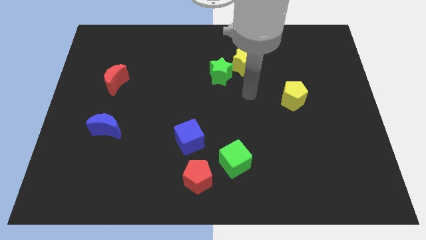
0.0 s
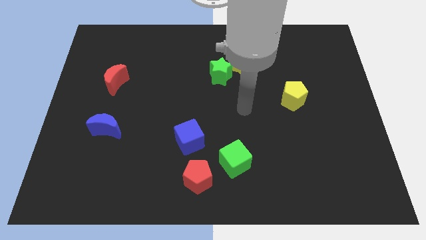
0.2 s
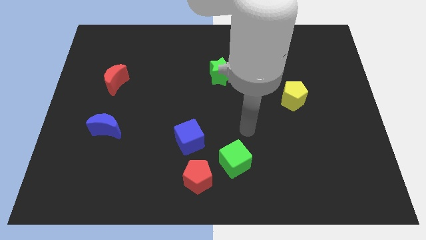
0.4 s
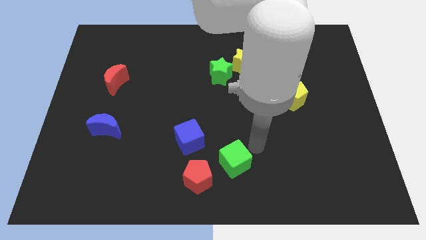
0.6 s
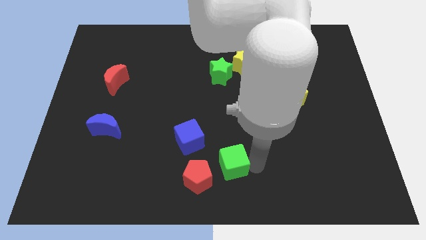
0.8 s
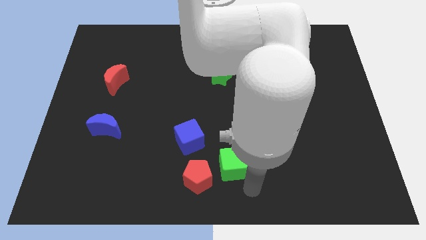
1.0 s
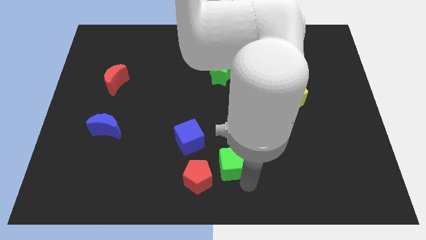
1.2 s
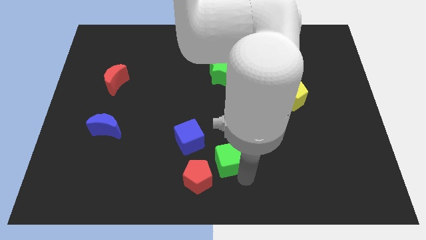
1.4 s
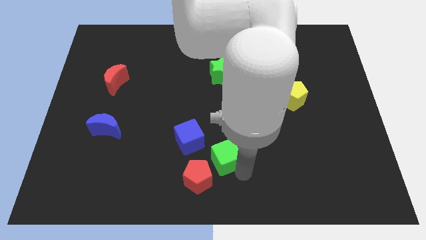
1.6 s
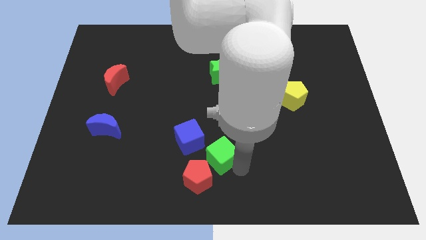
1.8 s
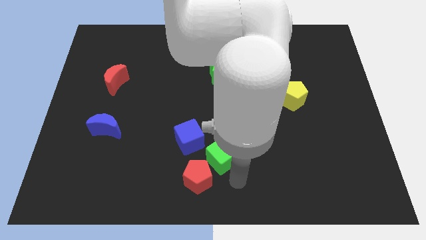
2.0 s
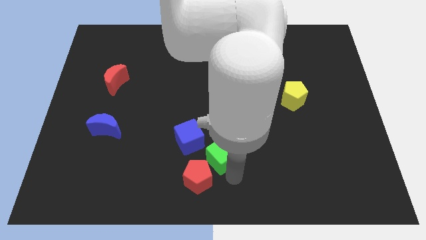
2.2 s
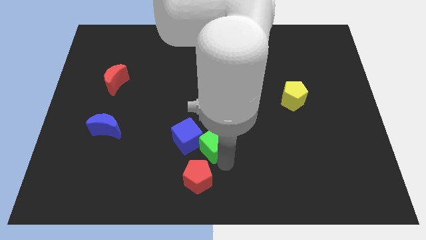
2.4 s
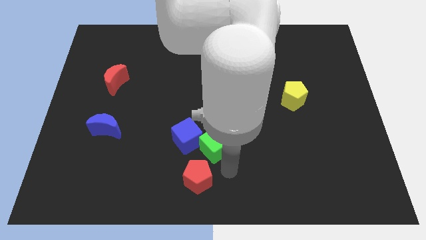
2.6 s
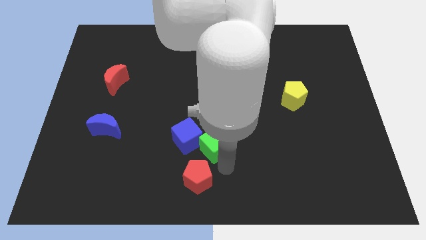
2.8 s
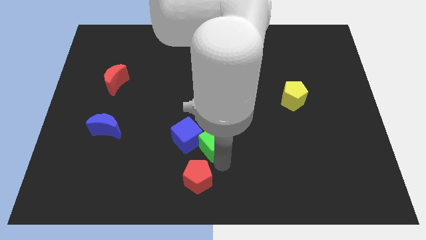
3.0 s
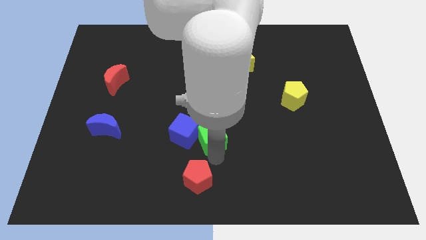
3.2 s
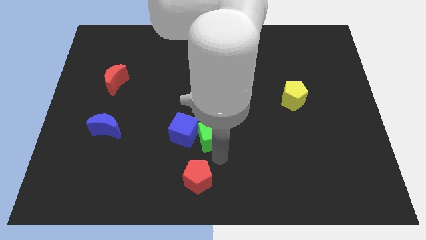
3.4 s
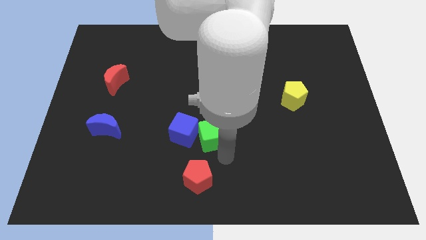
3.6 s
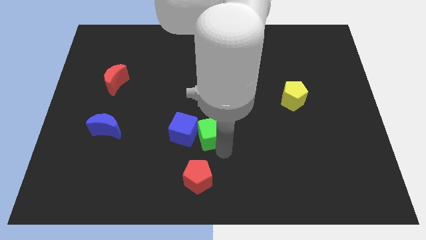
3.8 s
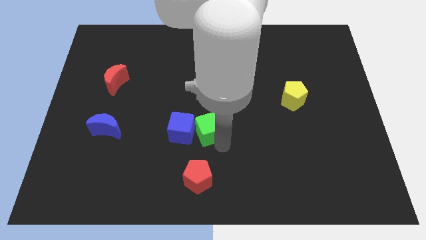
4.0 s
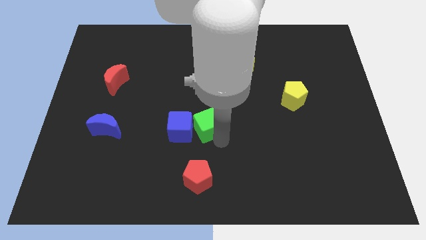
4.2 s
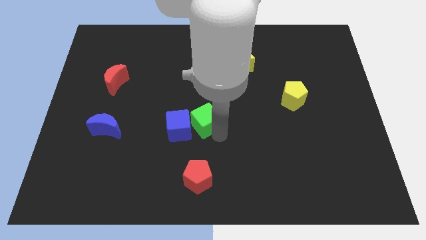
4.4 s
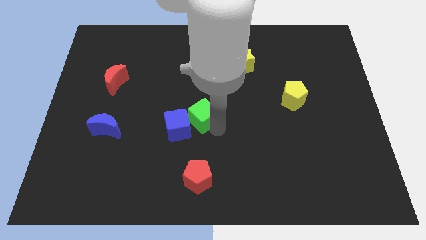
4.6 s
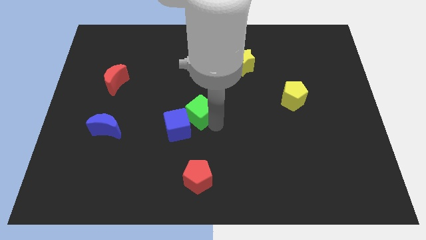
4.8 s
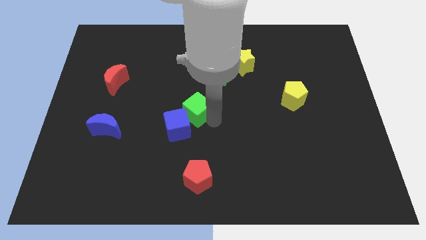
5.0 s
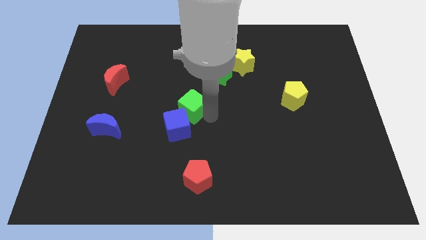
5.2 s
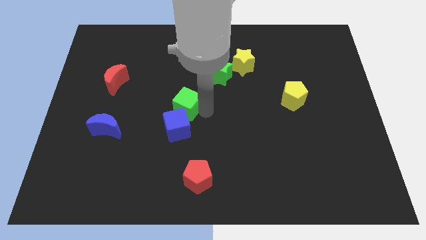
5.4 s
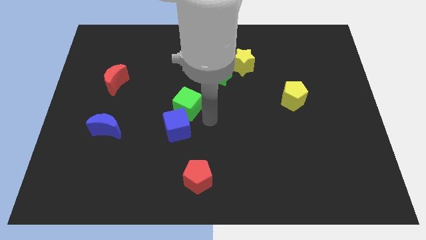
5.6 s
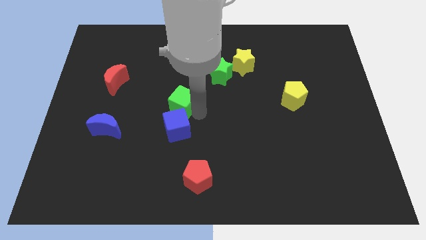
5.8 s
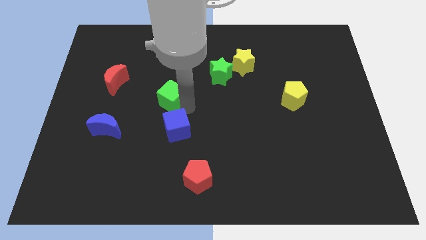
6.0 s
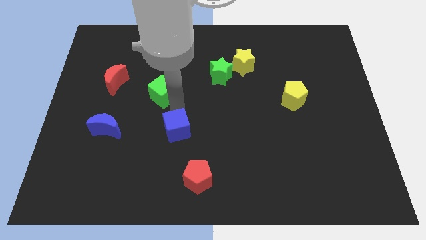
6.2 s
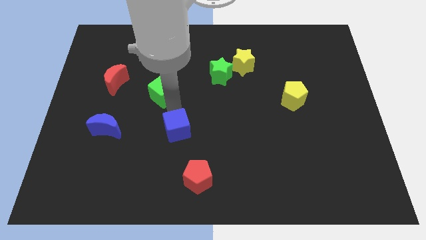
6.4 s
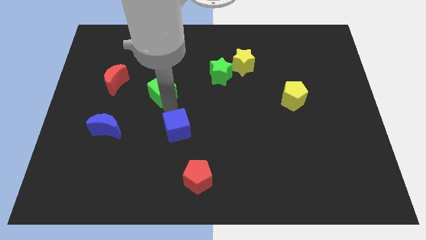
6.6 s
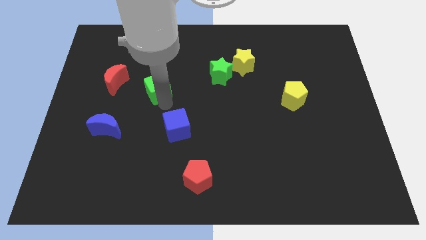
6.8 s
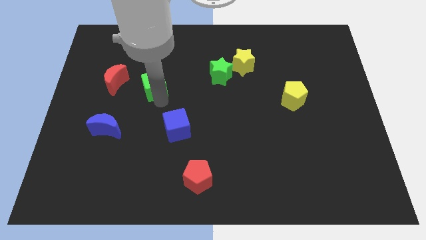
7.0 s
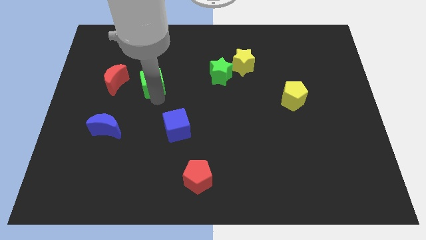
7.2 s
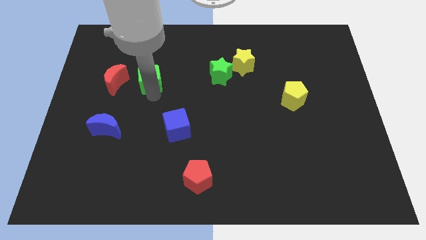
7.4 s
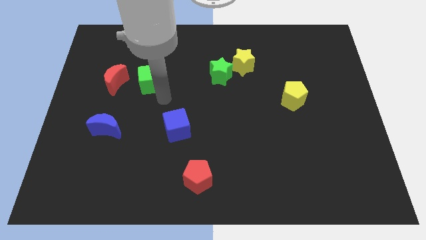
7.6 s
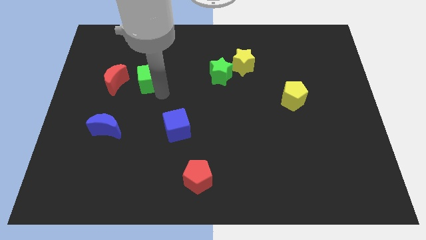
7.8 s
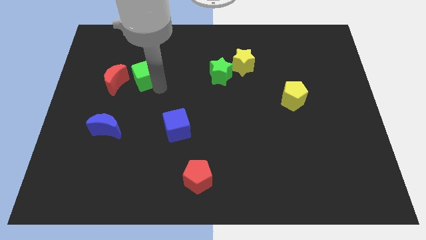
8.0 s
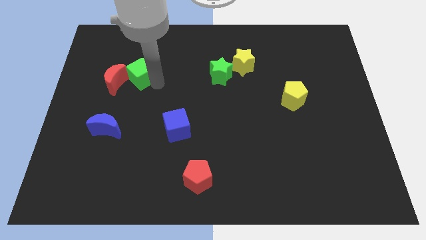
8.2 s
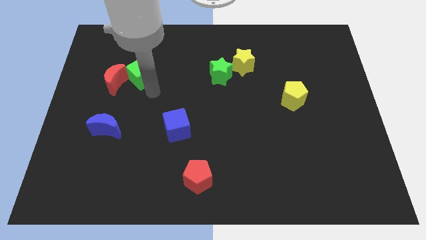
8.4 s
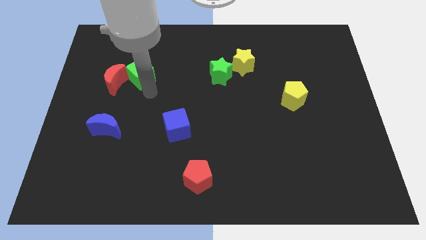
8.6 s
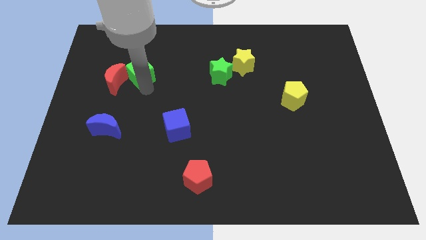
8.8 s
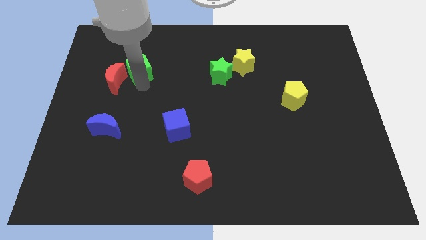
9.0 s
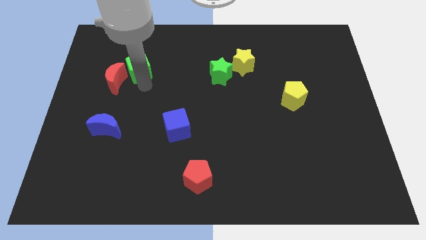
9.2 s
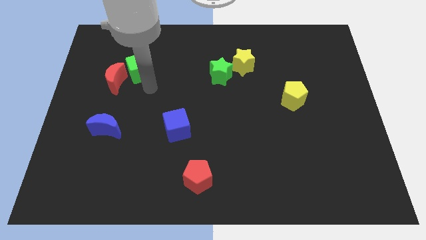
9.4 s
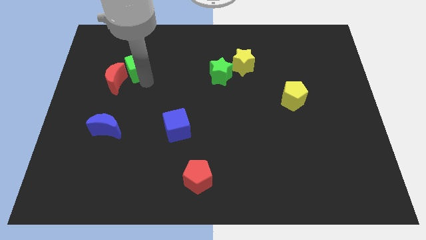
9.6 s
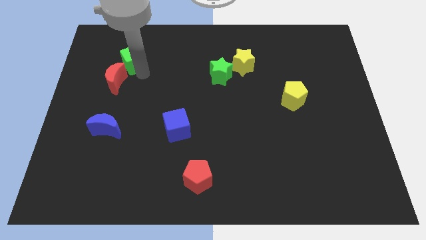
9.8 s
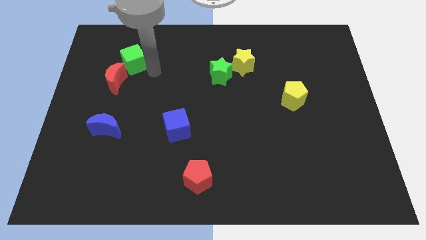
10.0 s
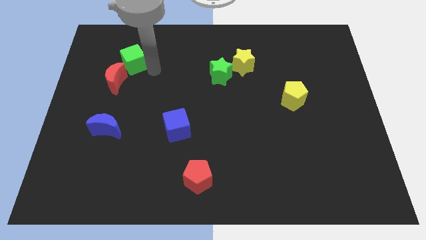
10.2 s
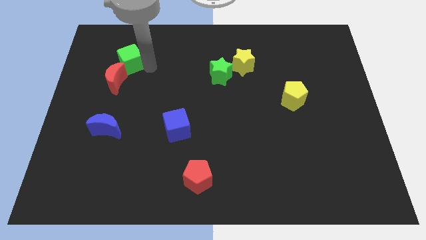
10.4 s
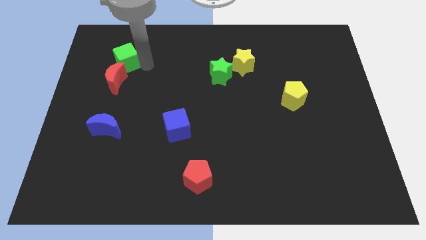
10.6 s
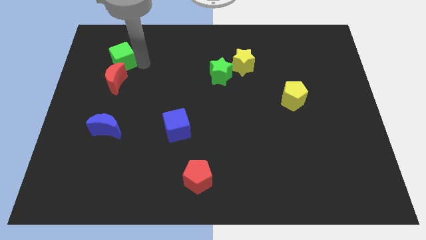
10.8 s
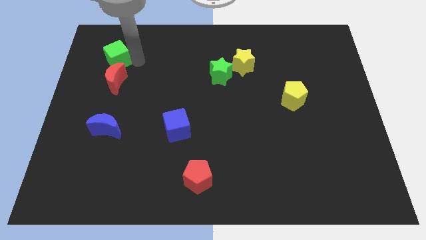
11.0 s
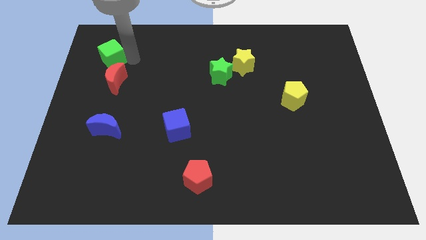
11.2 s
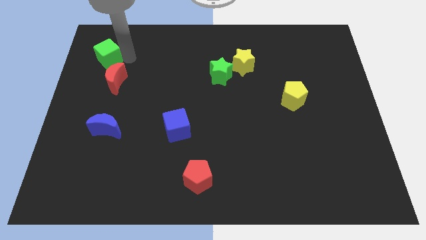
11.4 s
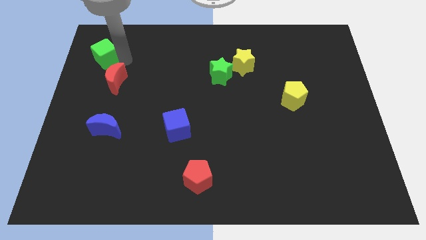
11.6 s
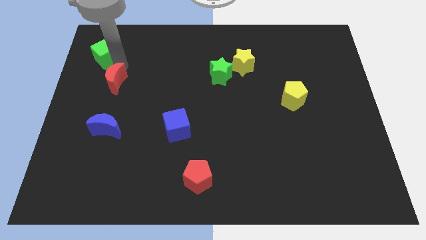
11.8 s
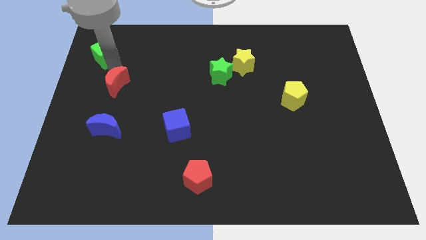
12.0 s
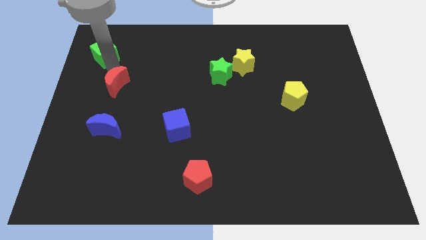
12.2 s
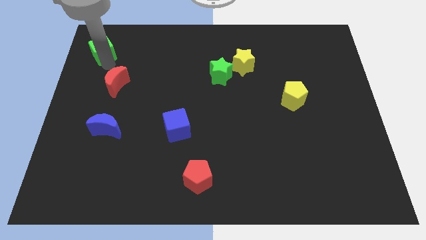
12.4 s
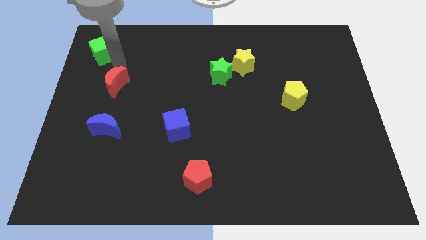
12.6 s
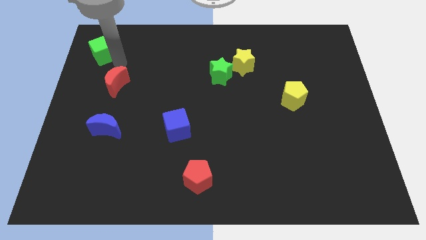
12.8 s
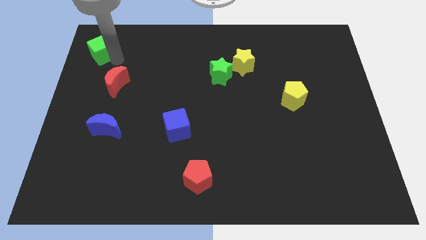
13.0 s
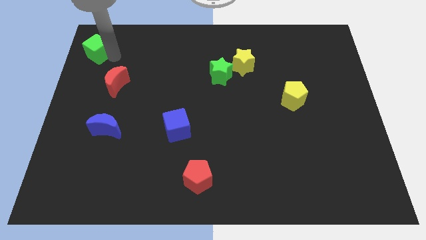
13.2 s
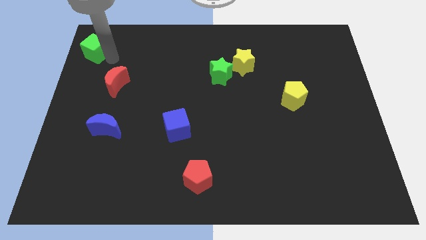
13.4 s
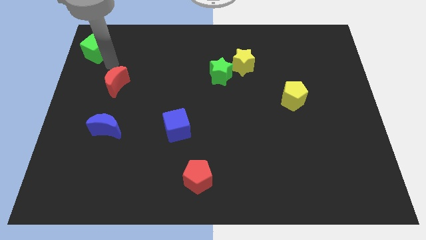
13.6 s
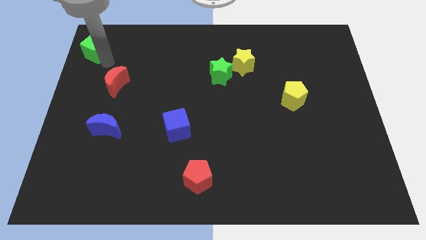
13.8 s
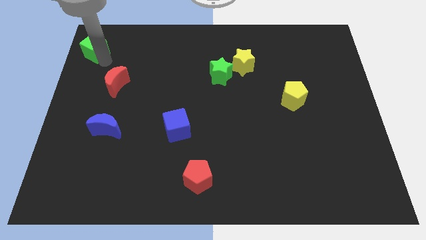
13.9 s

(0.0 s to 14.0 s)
move the green cube to the upper left corner
